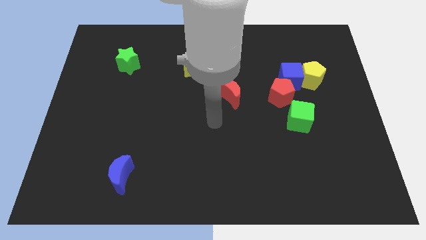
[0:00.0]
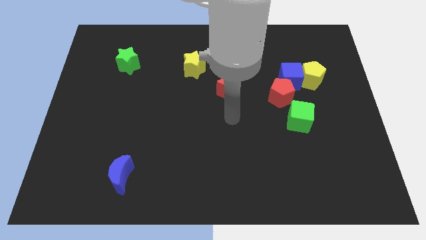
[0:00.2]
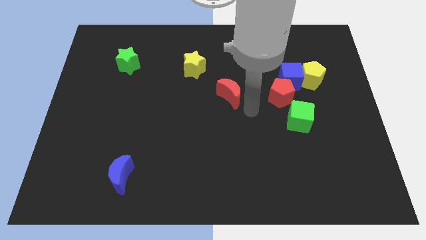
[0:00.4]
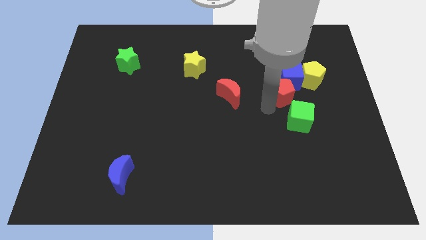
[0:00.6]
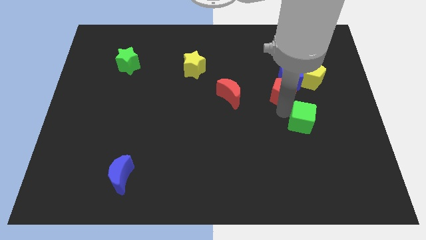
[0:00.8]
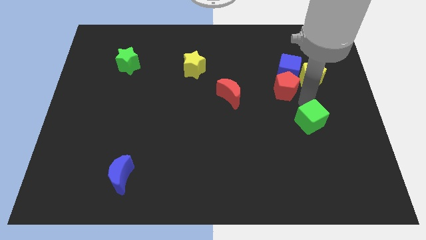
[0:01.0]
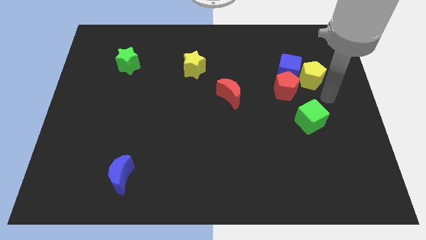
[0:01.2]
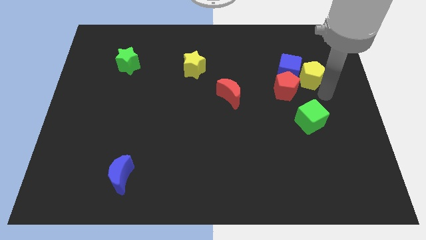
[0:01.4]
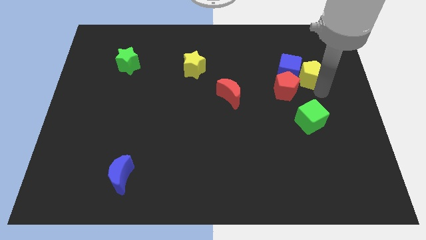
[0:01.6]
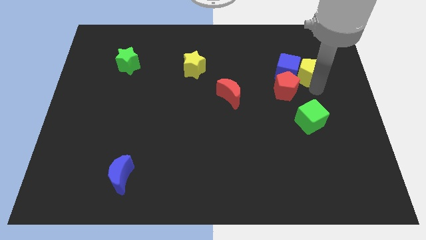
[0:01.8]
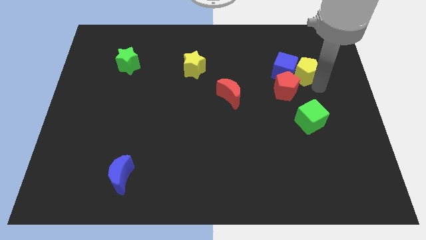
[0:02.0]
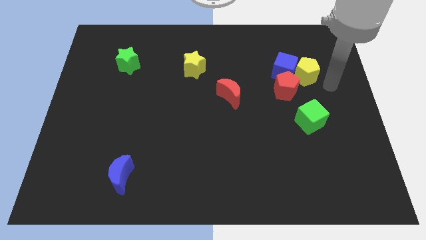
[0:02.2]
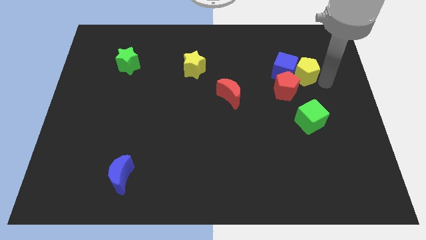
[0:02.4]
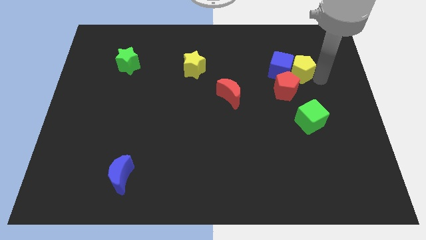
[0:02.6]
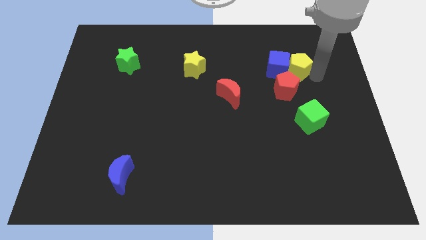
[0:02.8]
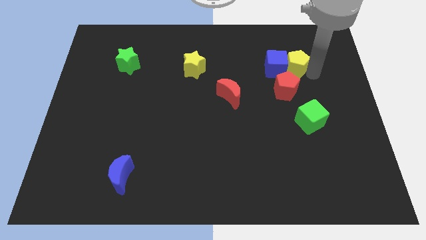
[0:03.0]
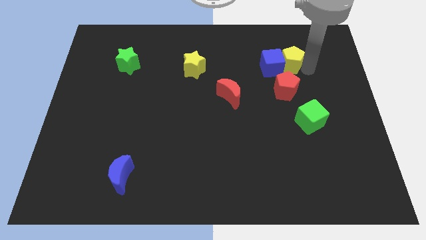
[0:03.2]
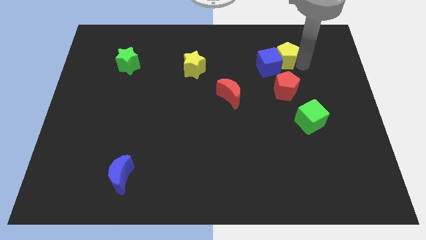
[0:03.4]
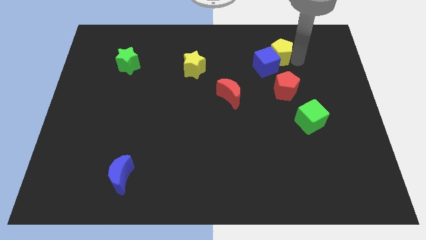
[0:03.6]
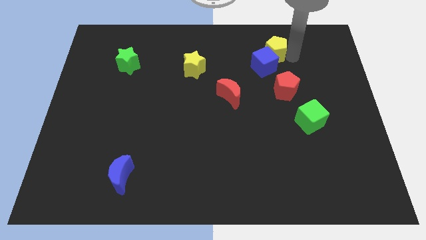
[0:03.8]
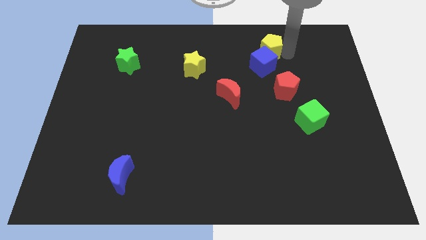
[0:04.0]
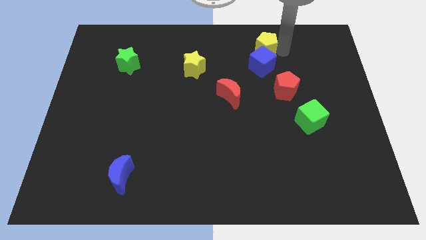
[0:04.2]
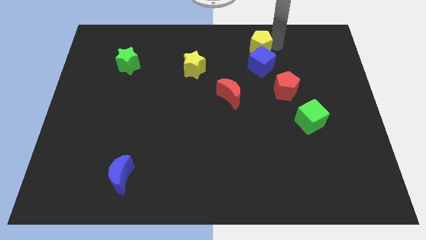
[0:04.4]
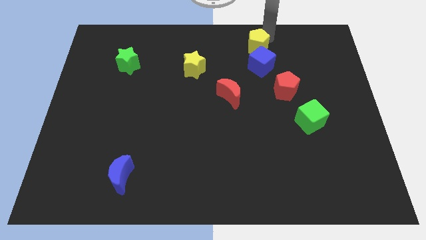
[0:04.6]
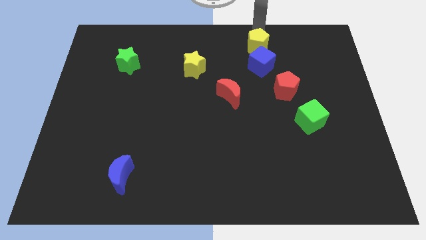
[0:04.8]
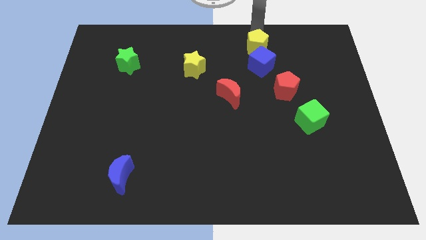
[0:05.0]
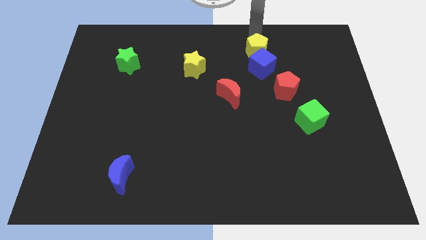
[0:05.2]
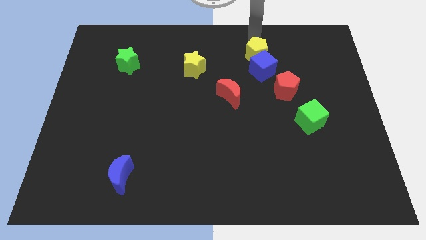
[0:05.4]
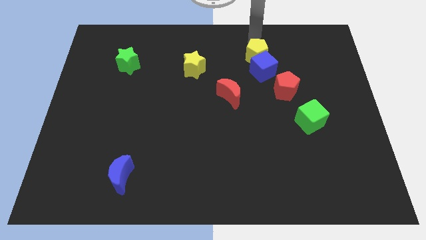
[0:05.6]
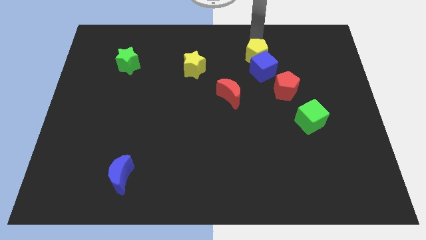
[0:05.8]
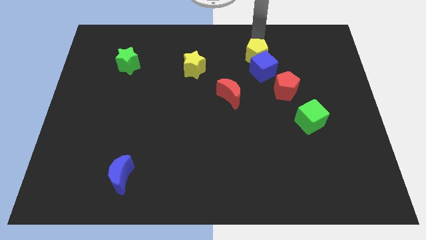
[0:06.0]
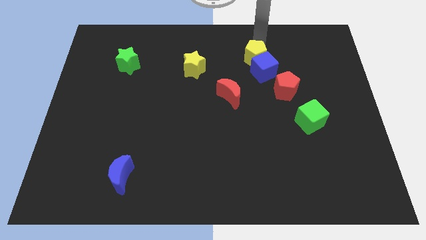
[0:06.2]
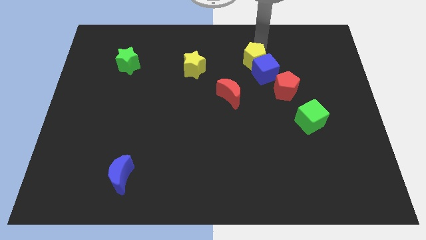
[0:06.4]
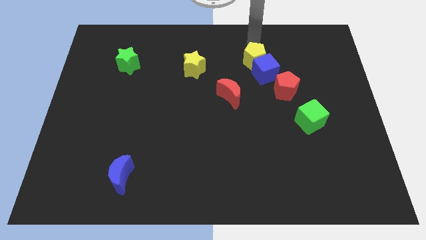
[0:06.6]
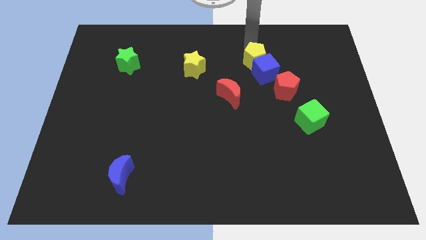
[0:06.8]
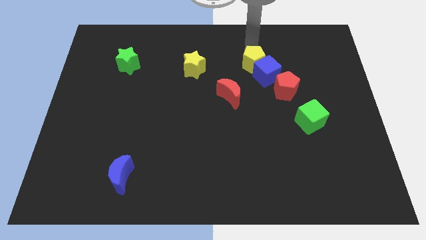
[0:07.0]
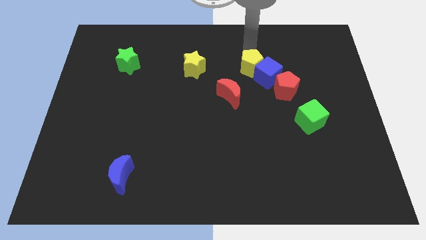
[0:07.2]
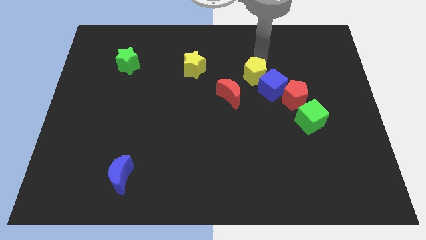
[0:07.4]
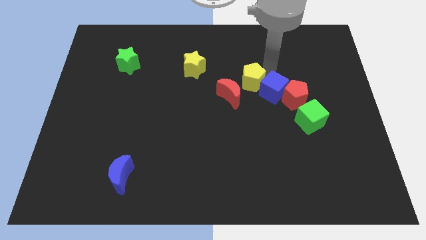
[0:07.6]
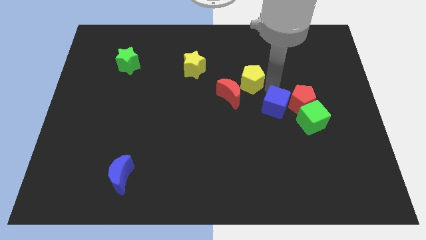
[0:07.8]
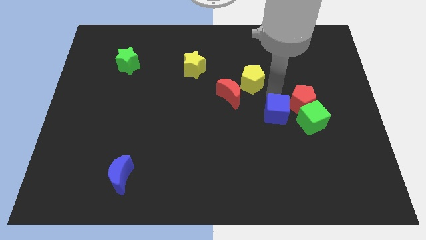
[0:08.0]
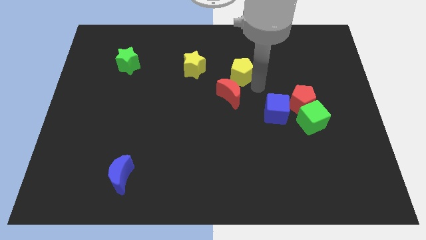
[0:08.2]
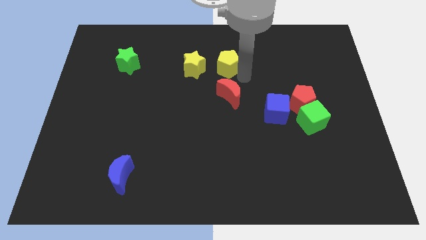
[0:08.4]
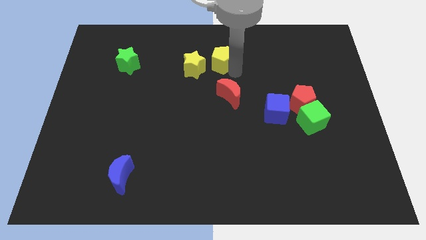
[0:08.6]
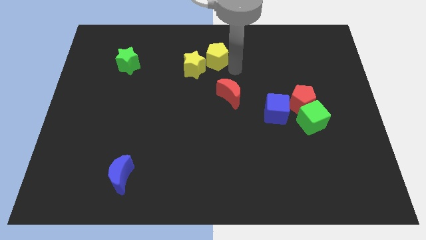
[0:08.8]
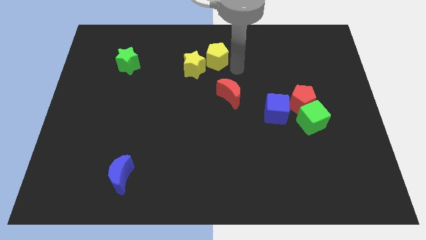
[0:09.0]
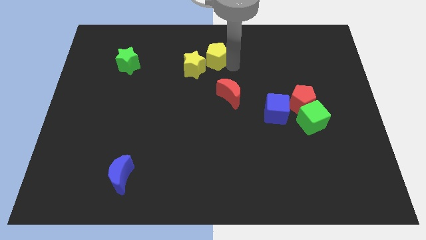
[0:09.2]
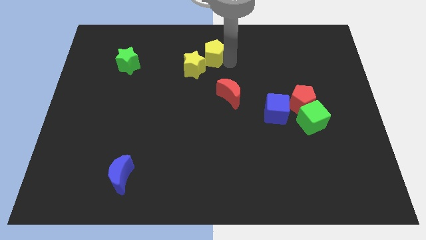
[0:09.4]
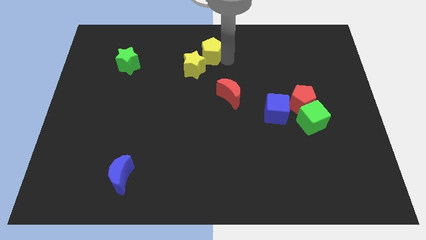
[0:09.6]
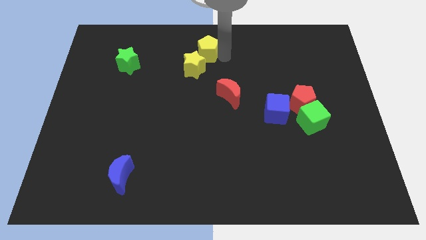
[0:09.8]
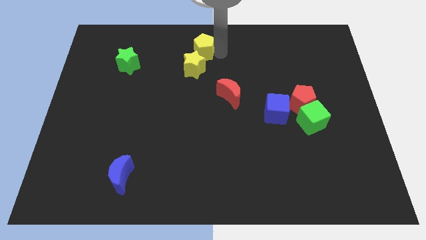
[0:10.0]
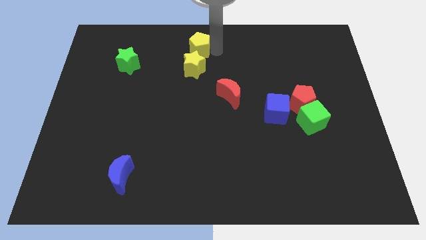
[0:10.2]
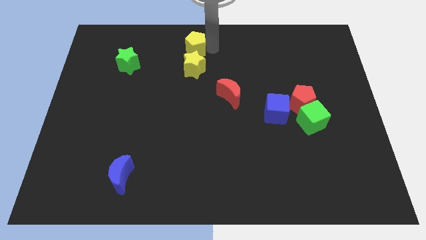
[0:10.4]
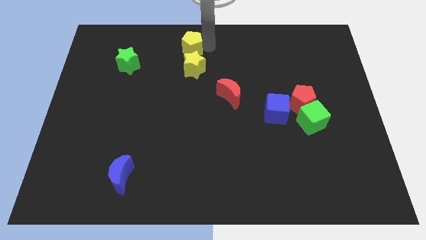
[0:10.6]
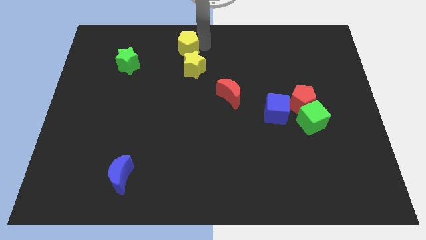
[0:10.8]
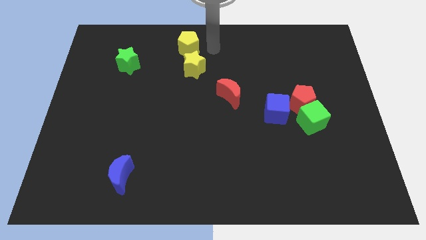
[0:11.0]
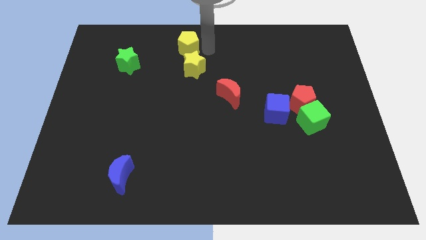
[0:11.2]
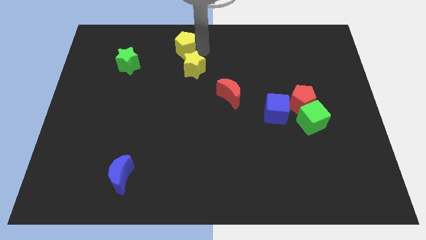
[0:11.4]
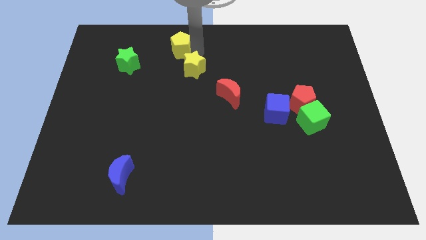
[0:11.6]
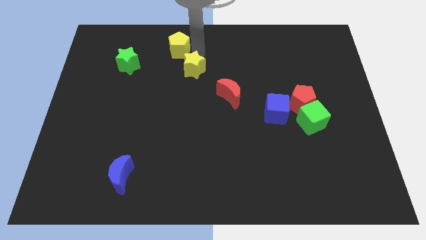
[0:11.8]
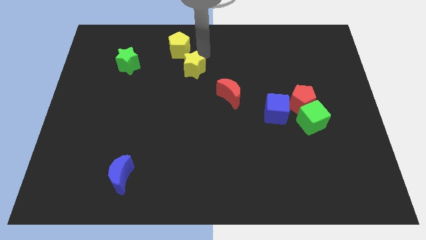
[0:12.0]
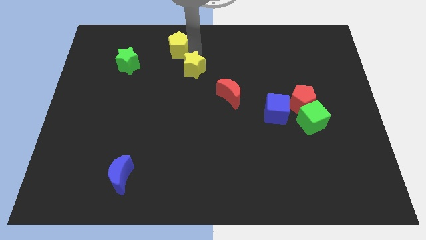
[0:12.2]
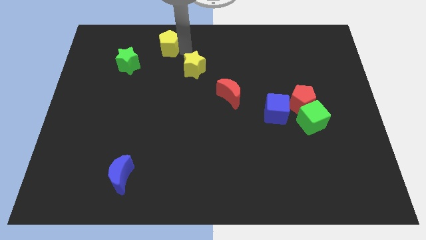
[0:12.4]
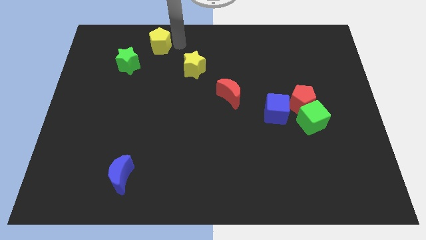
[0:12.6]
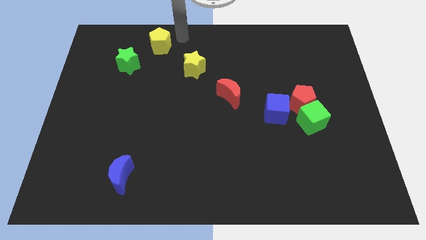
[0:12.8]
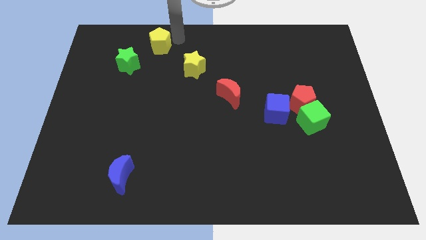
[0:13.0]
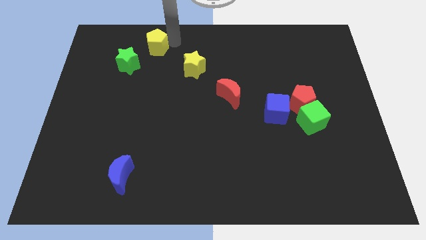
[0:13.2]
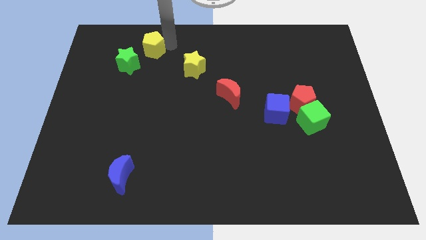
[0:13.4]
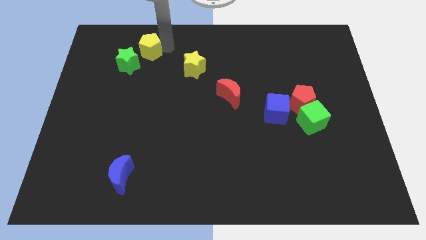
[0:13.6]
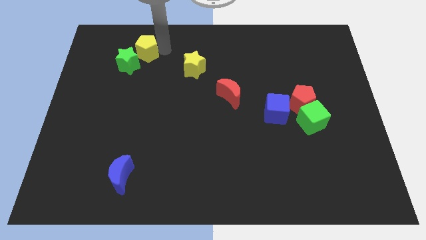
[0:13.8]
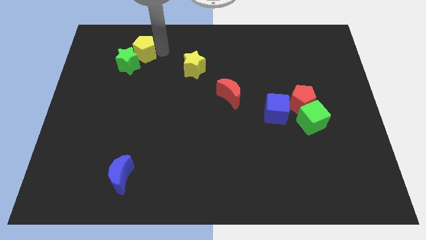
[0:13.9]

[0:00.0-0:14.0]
put the yellow pentagon next to the green star

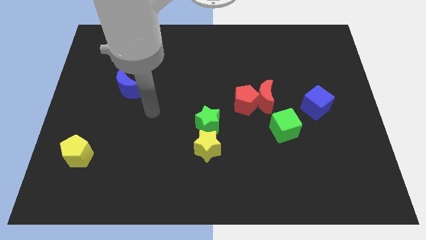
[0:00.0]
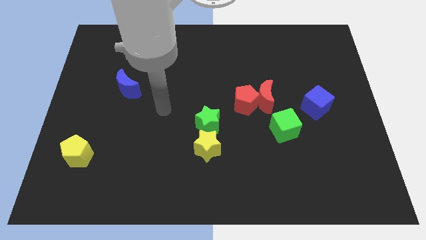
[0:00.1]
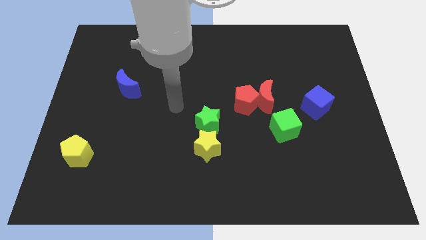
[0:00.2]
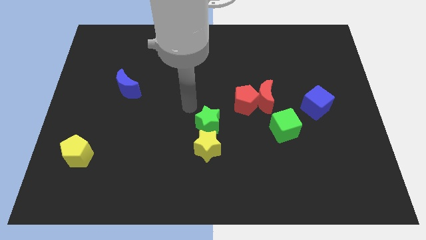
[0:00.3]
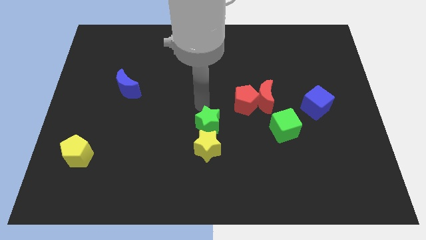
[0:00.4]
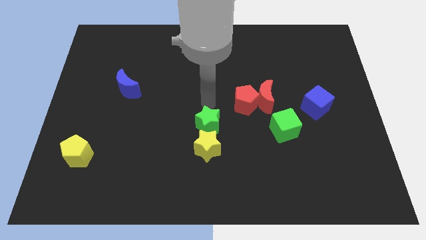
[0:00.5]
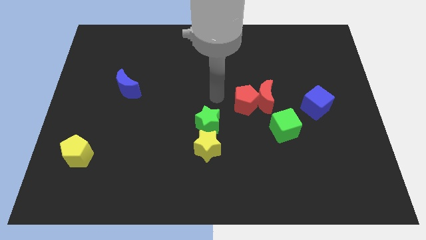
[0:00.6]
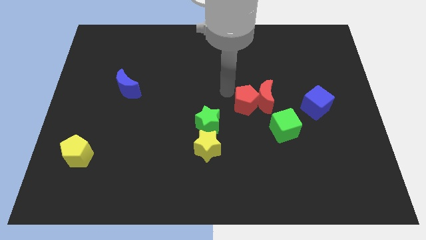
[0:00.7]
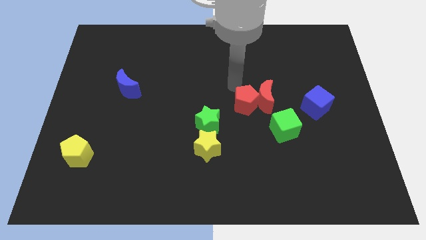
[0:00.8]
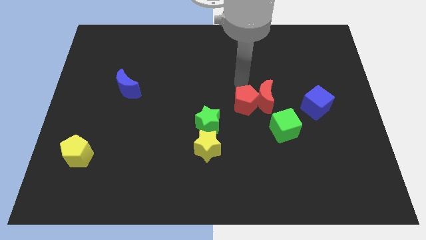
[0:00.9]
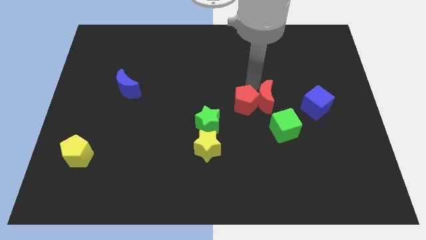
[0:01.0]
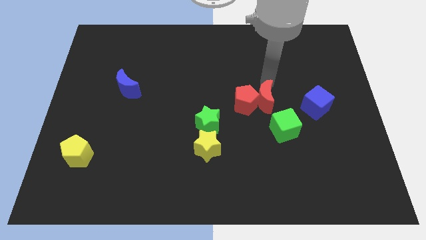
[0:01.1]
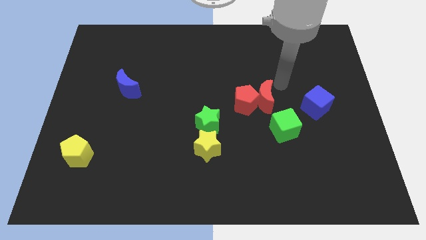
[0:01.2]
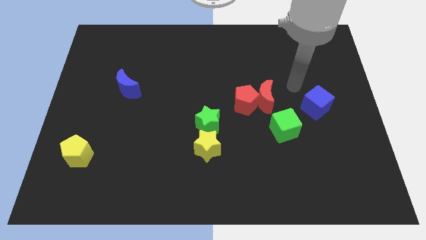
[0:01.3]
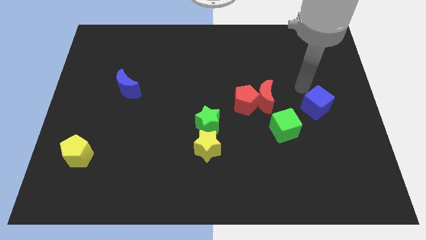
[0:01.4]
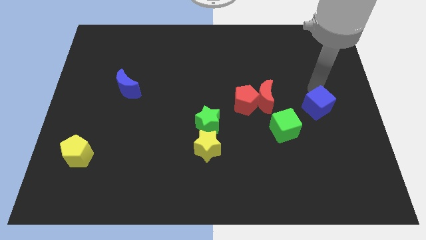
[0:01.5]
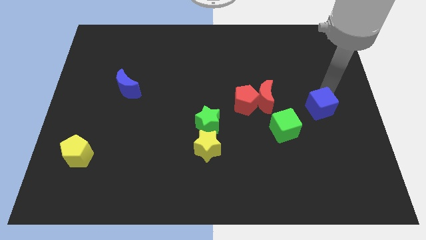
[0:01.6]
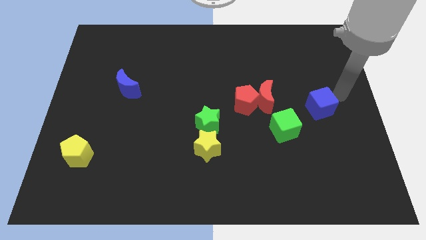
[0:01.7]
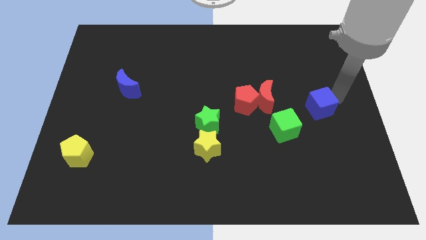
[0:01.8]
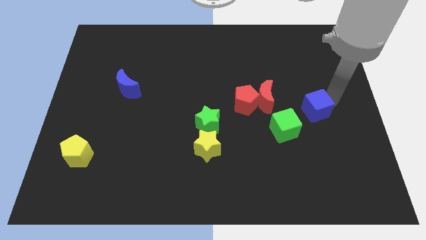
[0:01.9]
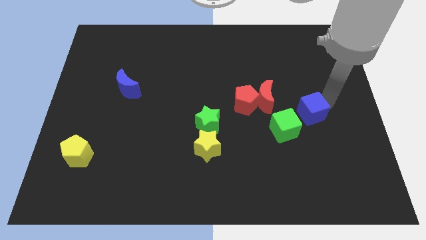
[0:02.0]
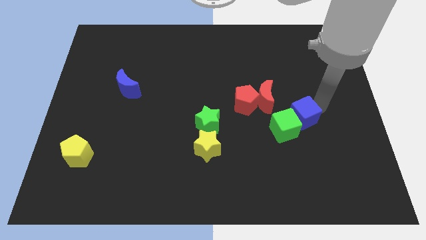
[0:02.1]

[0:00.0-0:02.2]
slide the blue cube towards the green cube
